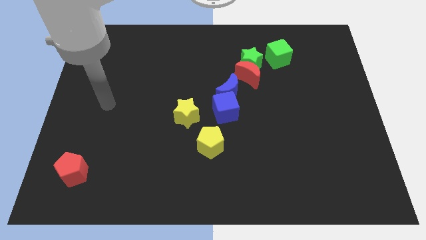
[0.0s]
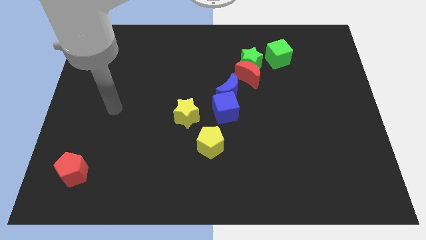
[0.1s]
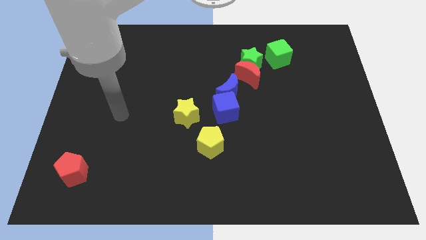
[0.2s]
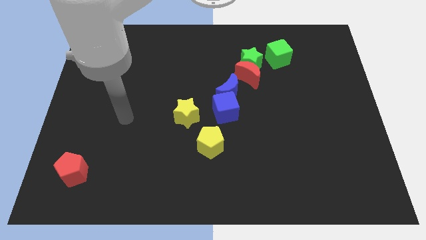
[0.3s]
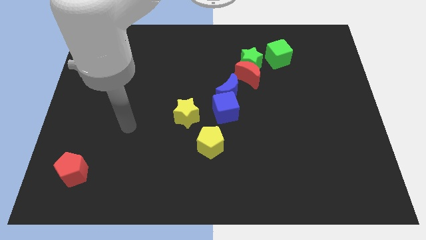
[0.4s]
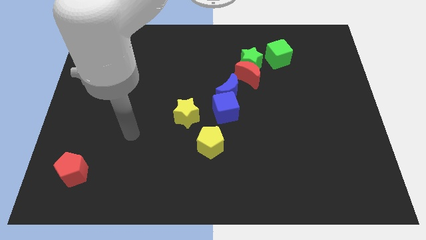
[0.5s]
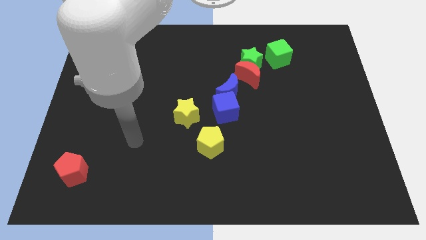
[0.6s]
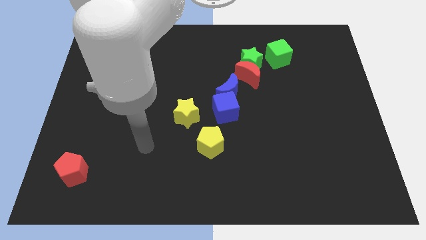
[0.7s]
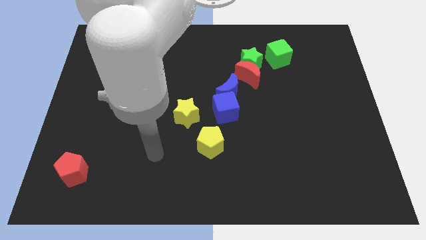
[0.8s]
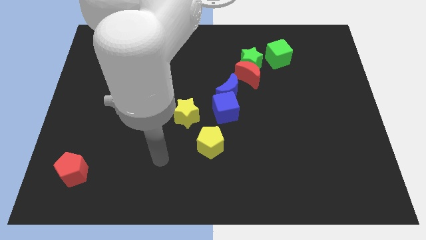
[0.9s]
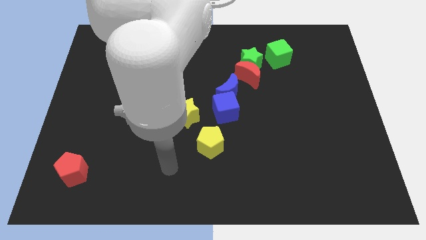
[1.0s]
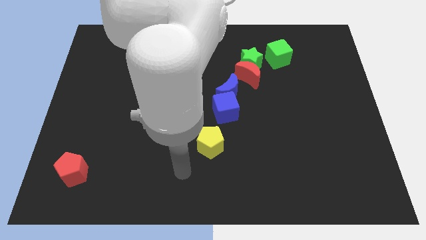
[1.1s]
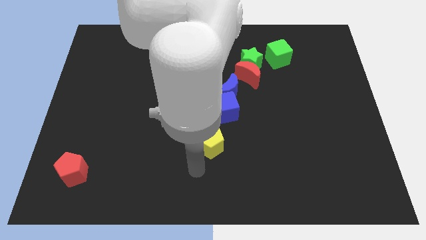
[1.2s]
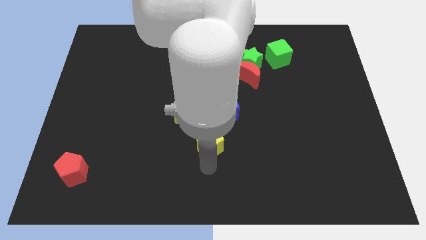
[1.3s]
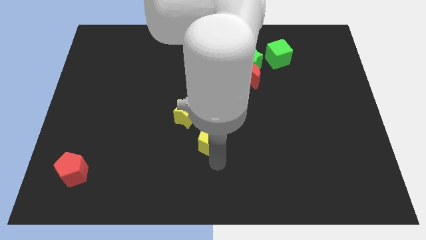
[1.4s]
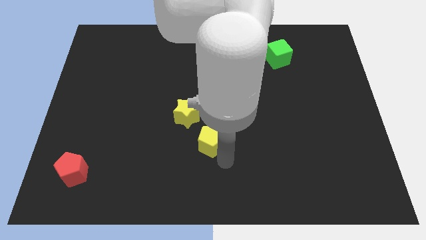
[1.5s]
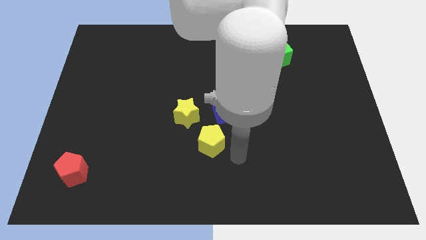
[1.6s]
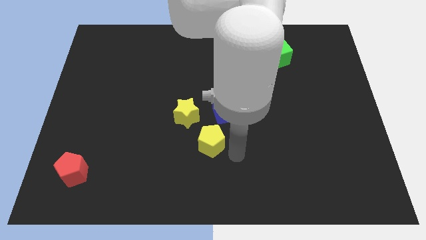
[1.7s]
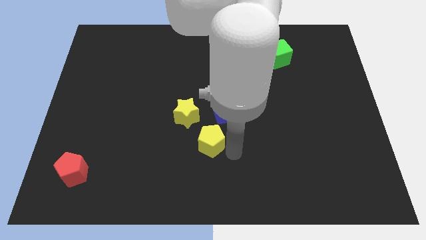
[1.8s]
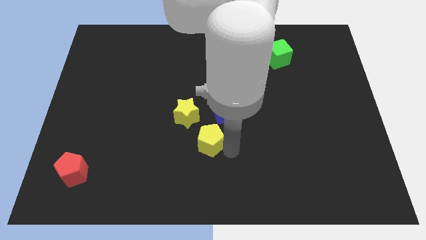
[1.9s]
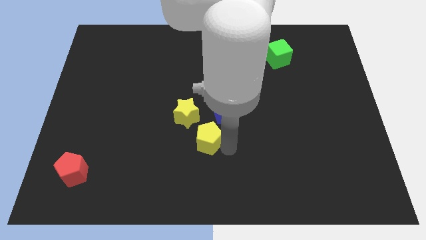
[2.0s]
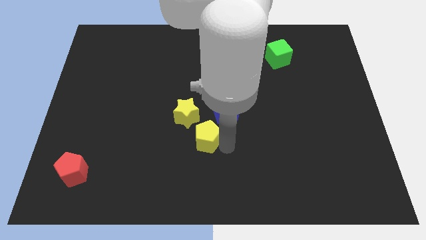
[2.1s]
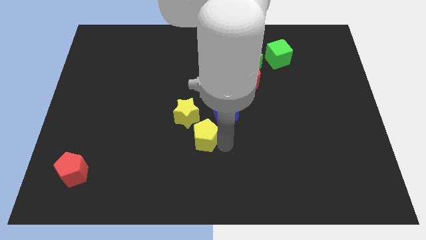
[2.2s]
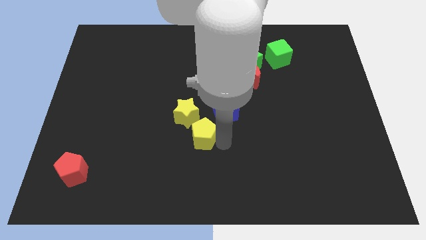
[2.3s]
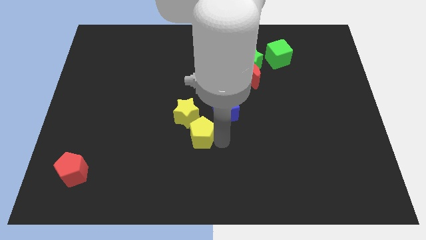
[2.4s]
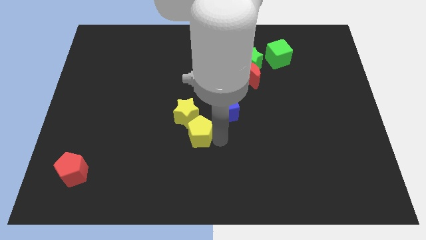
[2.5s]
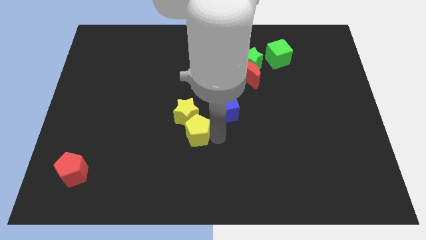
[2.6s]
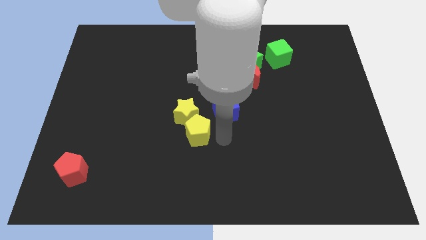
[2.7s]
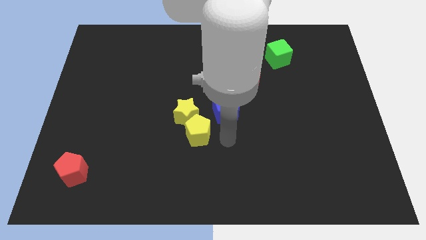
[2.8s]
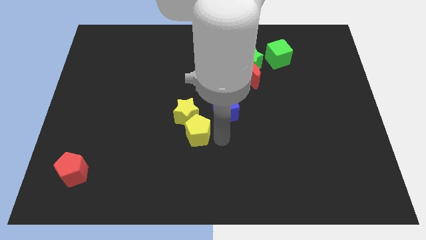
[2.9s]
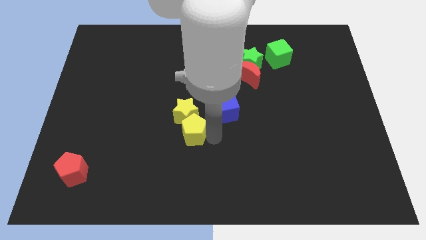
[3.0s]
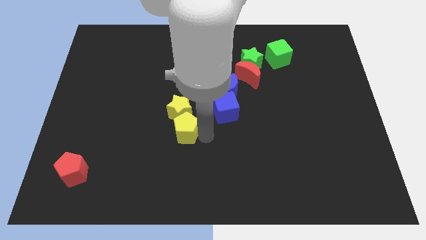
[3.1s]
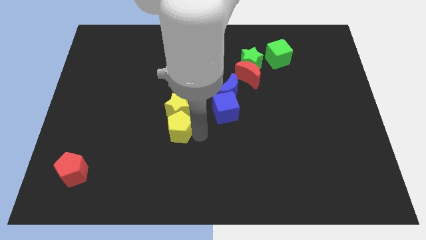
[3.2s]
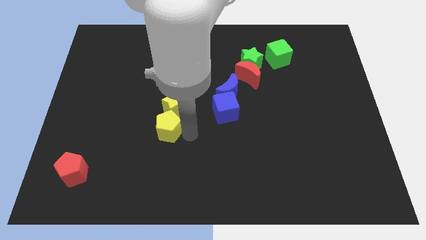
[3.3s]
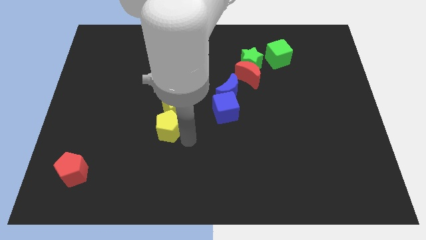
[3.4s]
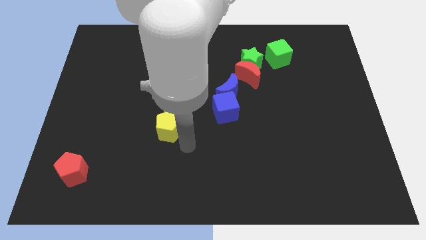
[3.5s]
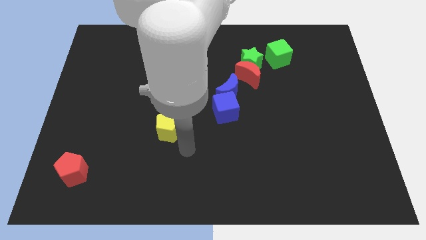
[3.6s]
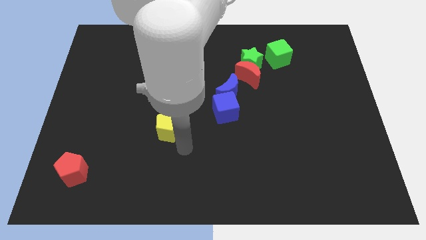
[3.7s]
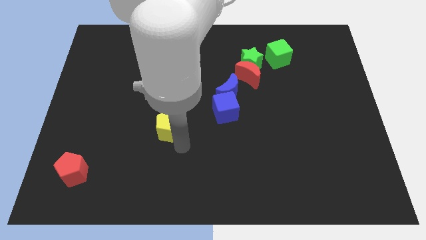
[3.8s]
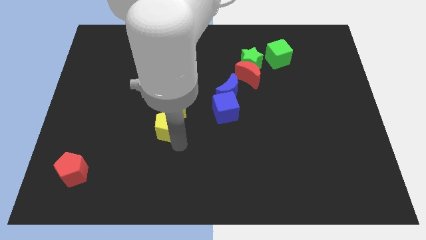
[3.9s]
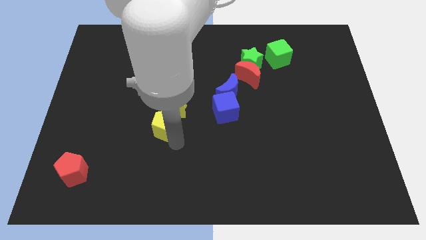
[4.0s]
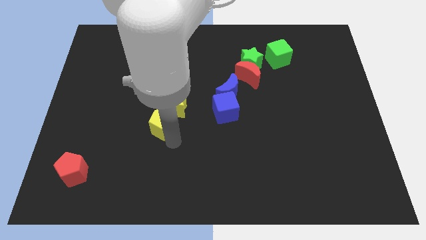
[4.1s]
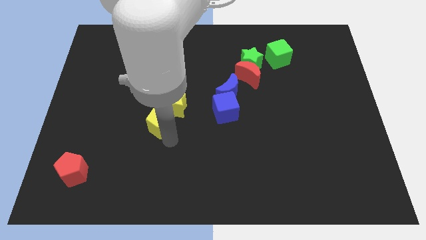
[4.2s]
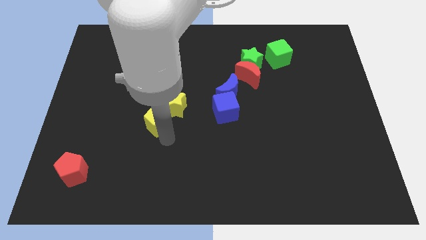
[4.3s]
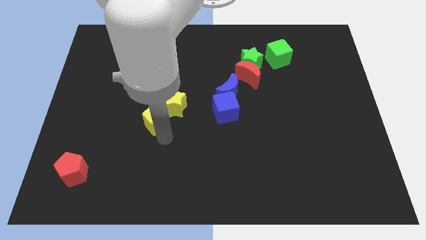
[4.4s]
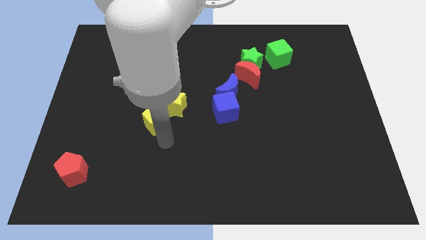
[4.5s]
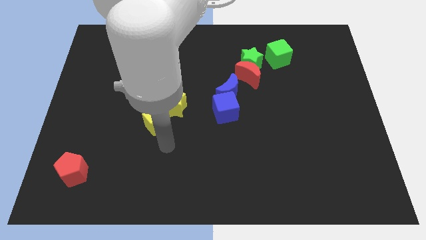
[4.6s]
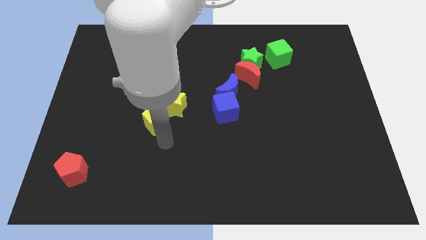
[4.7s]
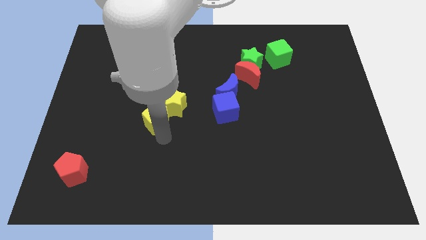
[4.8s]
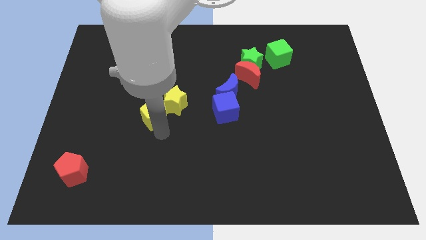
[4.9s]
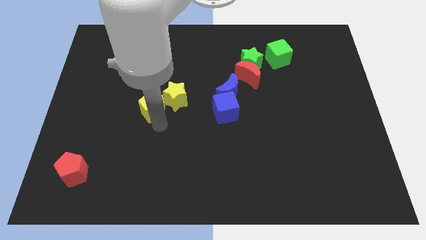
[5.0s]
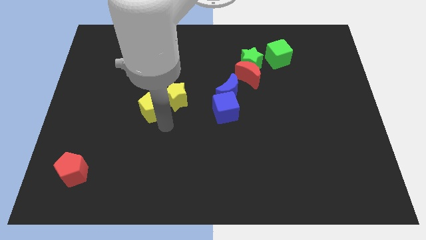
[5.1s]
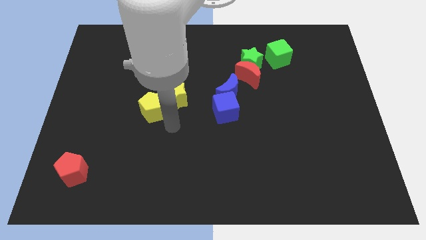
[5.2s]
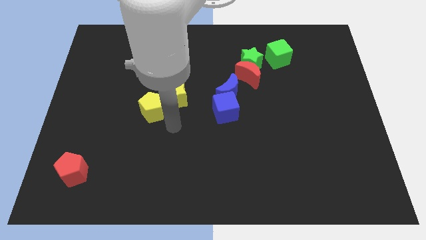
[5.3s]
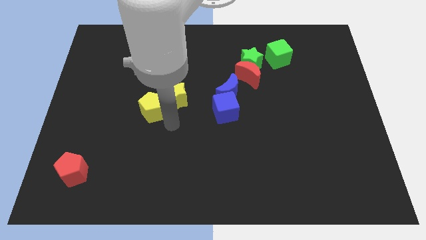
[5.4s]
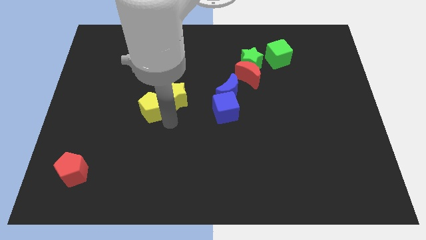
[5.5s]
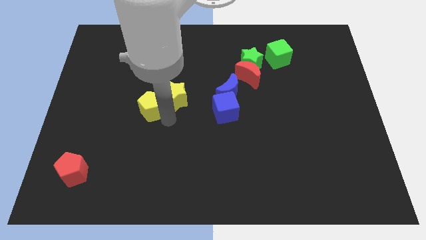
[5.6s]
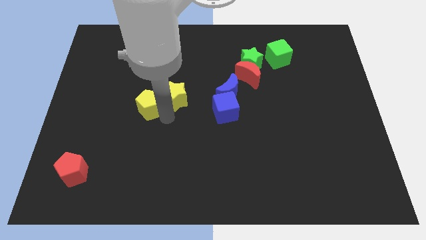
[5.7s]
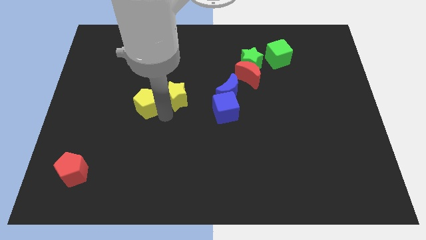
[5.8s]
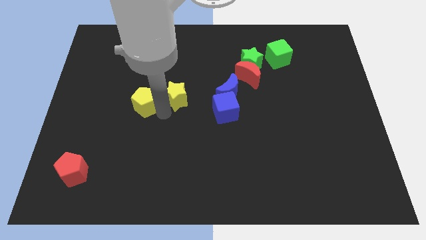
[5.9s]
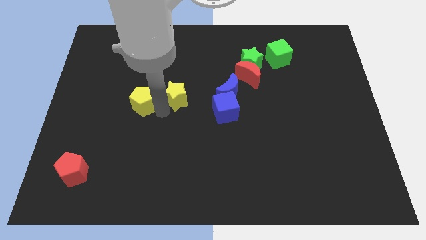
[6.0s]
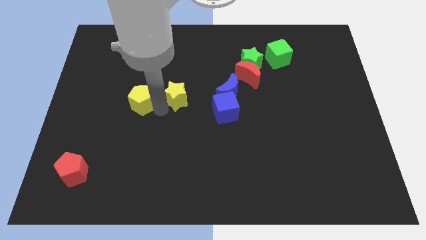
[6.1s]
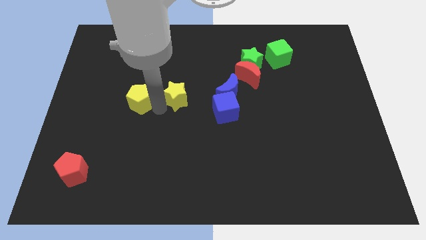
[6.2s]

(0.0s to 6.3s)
move the yellow pentagon diagonally upwards and left

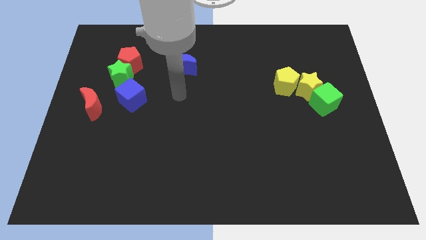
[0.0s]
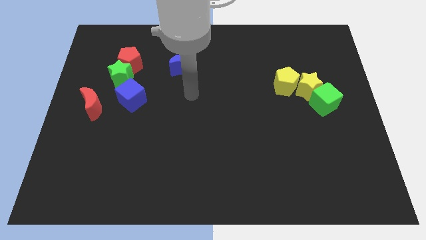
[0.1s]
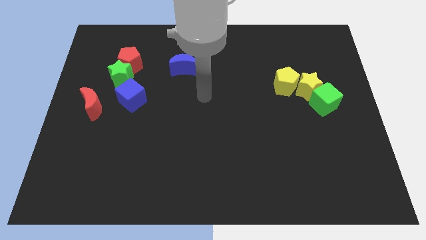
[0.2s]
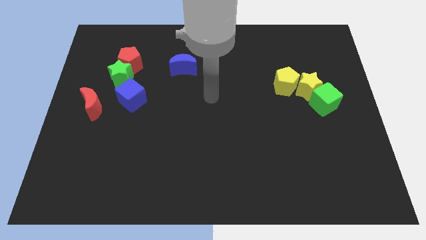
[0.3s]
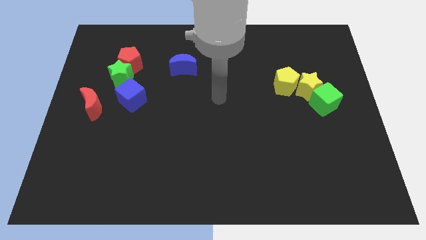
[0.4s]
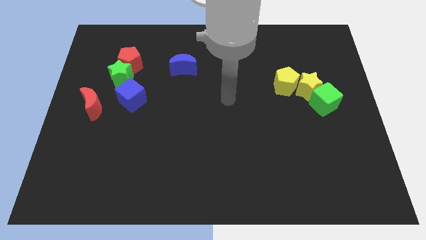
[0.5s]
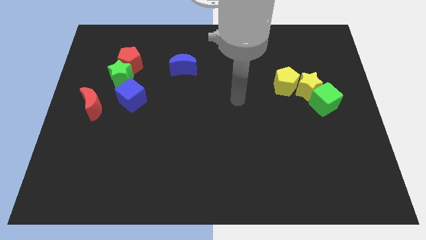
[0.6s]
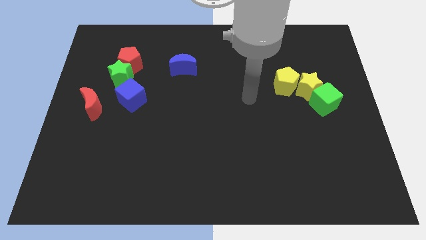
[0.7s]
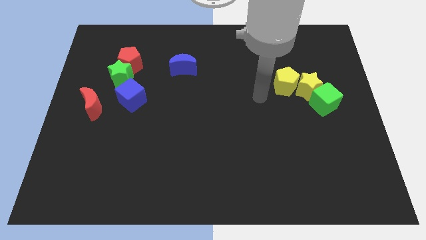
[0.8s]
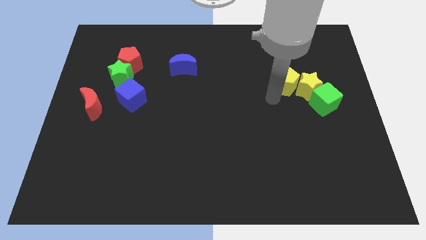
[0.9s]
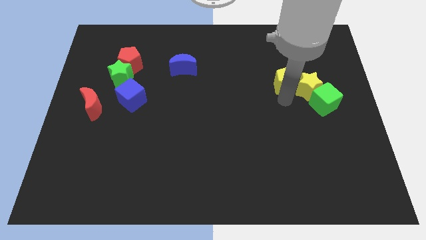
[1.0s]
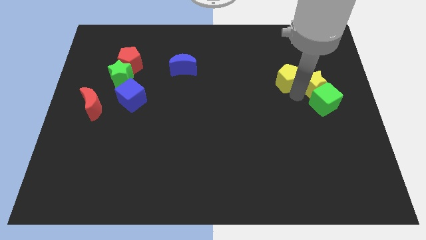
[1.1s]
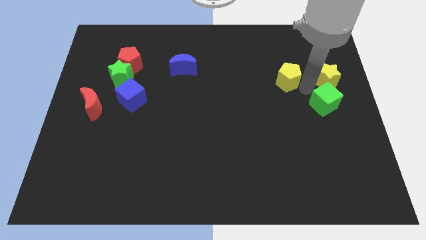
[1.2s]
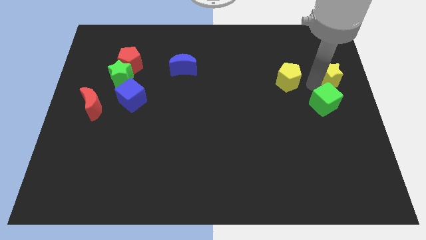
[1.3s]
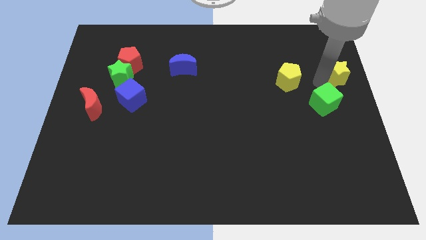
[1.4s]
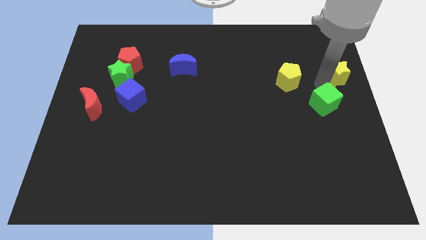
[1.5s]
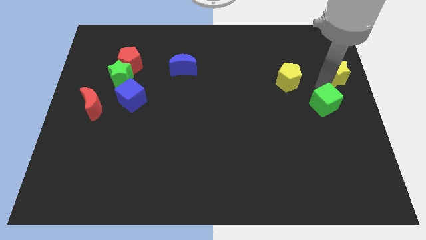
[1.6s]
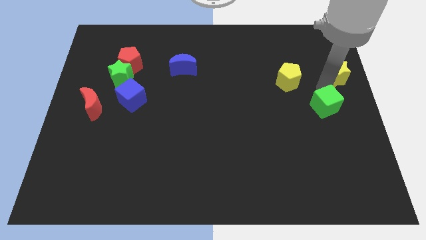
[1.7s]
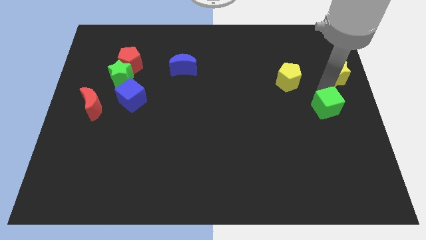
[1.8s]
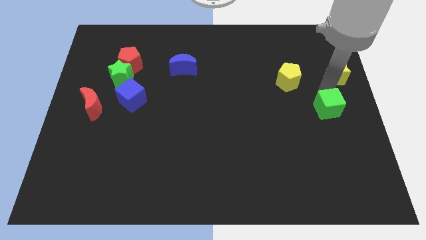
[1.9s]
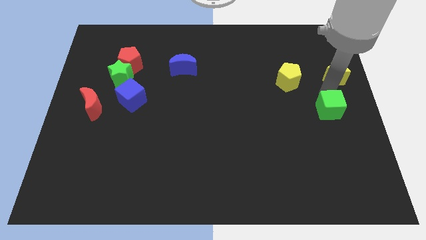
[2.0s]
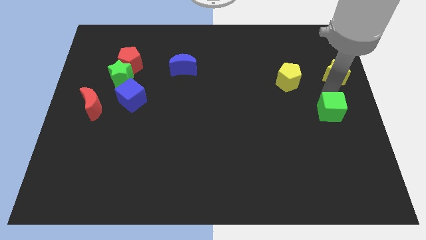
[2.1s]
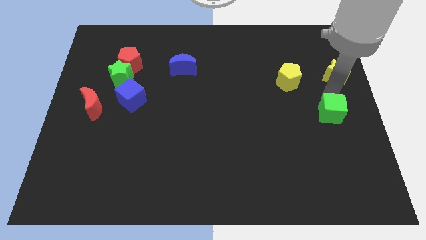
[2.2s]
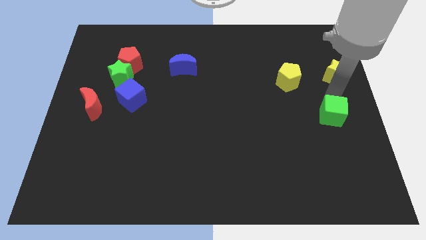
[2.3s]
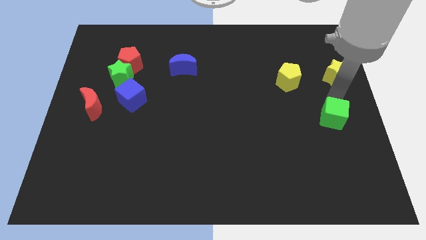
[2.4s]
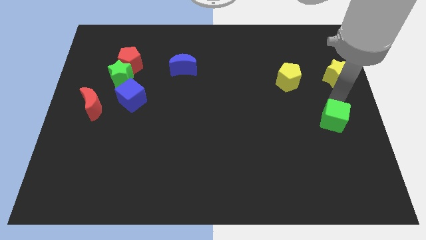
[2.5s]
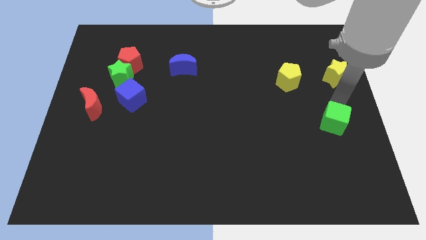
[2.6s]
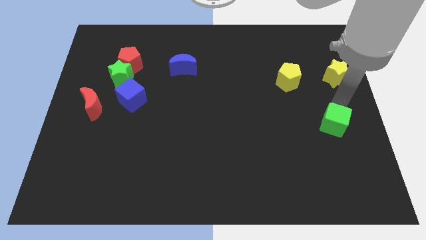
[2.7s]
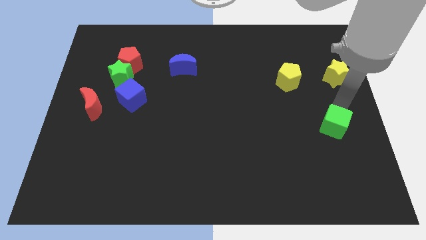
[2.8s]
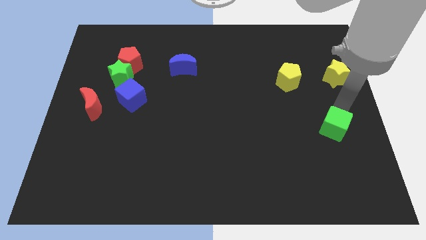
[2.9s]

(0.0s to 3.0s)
slightly move the green cube down
